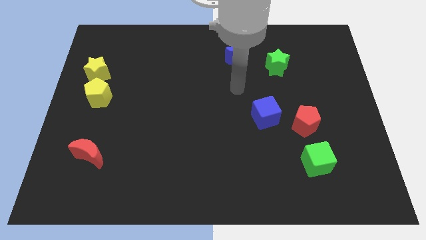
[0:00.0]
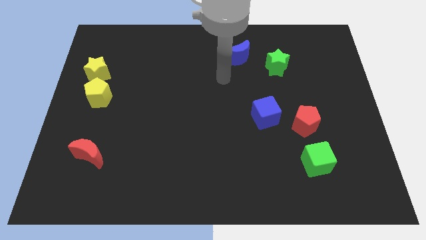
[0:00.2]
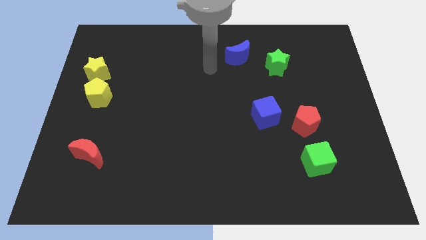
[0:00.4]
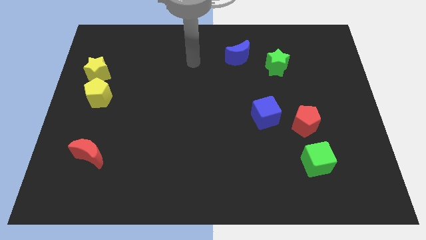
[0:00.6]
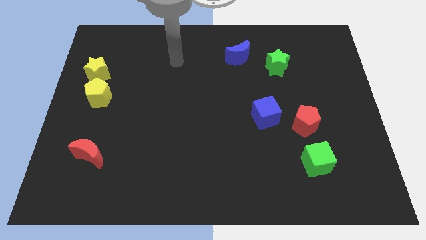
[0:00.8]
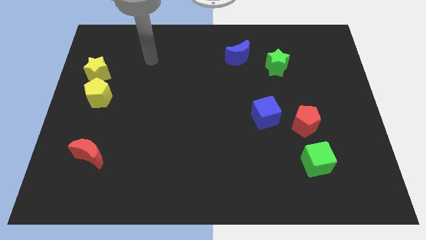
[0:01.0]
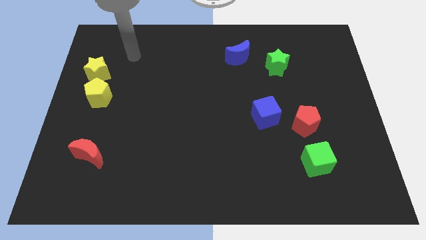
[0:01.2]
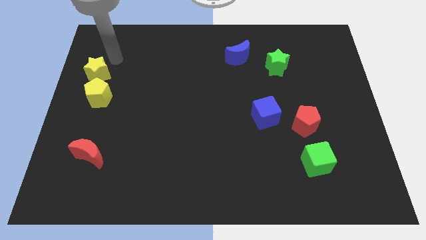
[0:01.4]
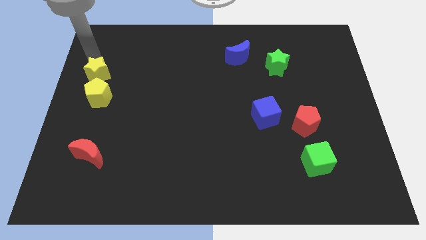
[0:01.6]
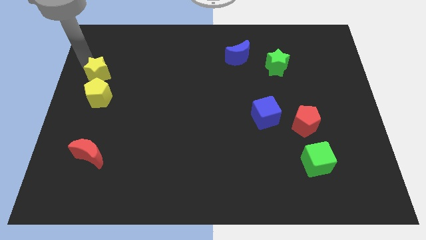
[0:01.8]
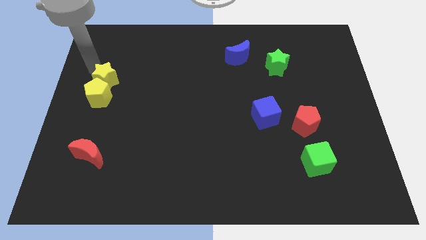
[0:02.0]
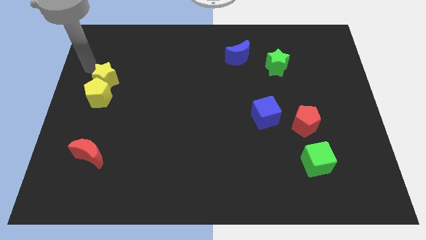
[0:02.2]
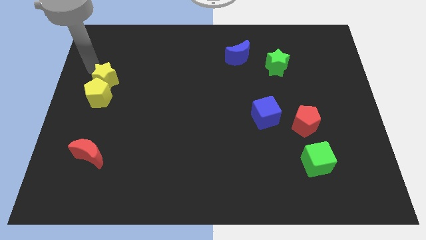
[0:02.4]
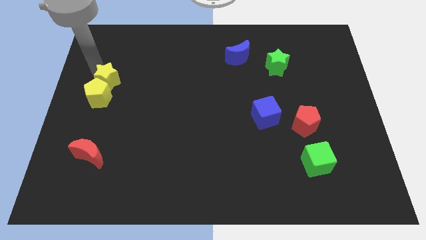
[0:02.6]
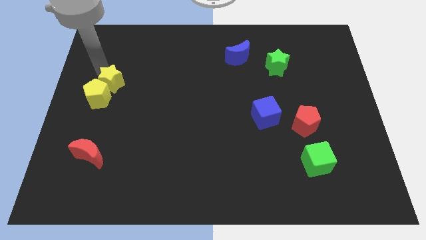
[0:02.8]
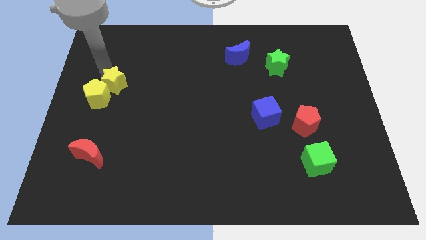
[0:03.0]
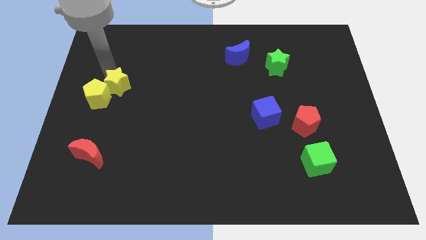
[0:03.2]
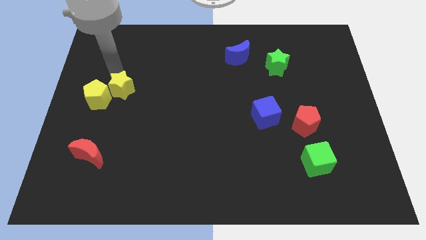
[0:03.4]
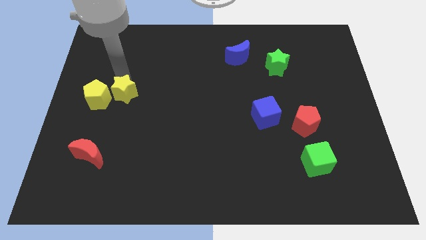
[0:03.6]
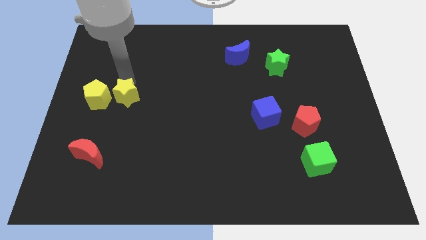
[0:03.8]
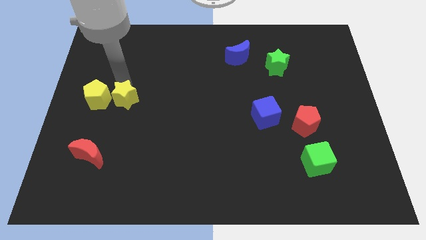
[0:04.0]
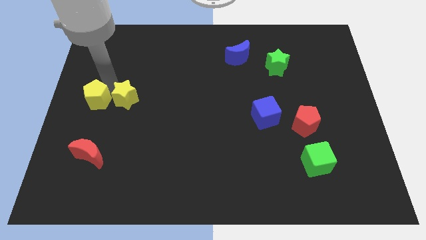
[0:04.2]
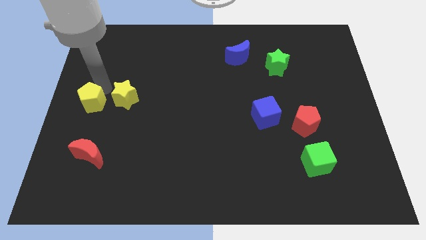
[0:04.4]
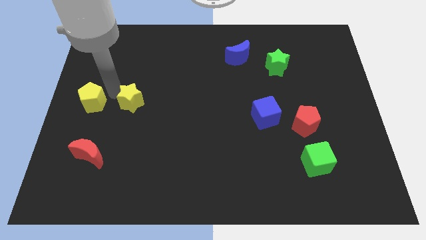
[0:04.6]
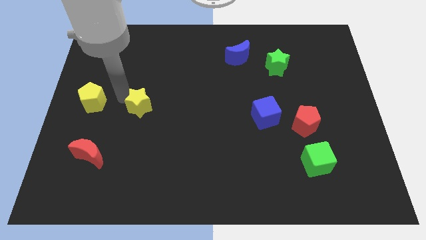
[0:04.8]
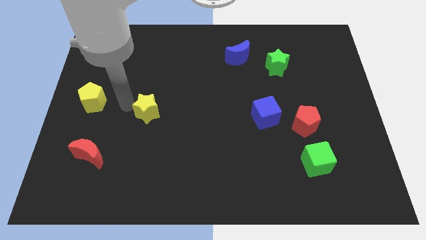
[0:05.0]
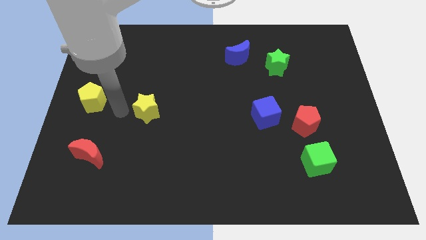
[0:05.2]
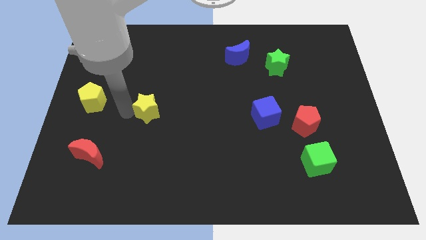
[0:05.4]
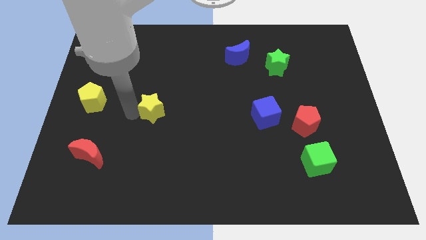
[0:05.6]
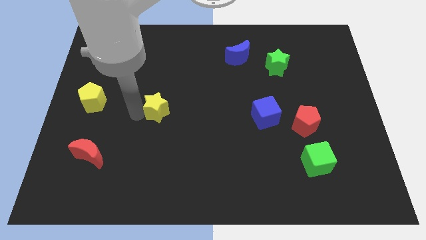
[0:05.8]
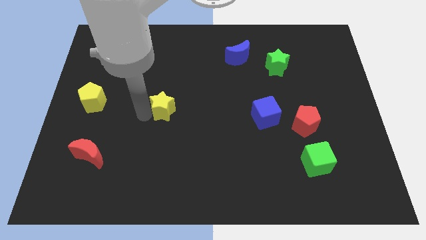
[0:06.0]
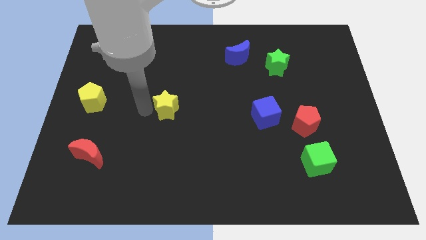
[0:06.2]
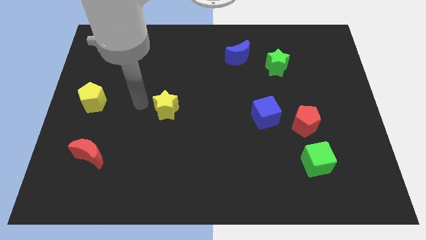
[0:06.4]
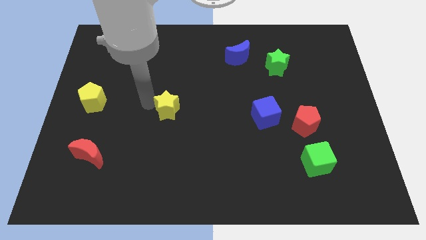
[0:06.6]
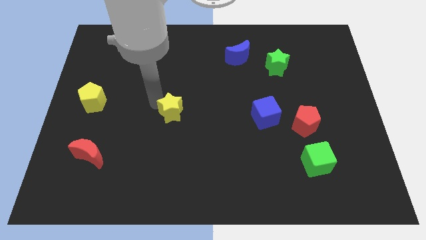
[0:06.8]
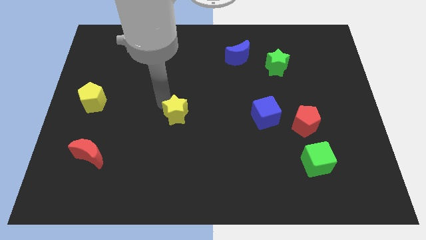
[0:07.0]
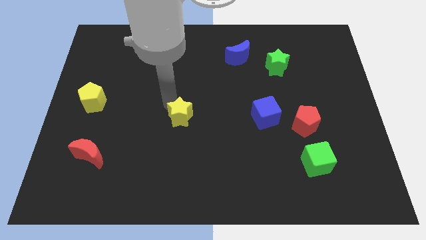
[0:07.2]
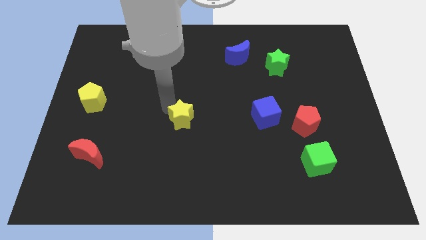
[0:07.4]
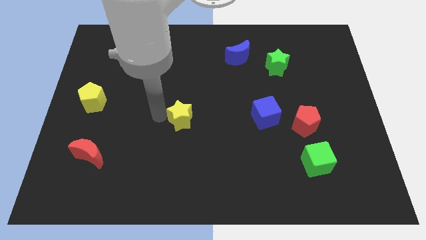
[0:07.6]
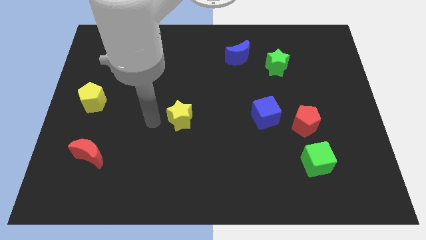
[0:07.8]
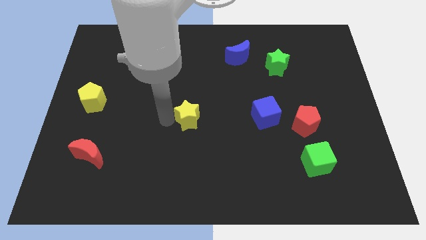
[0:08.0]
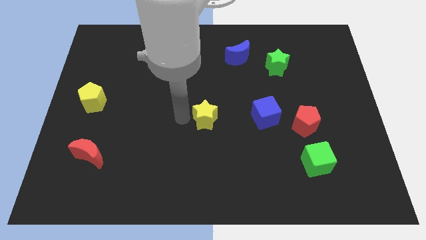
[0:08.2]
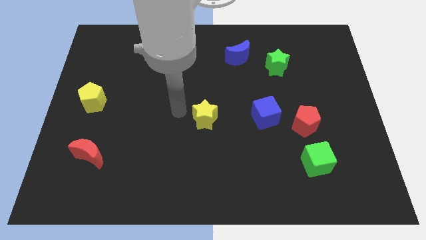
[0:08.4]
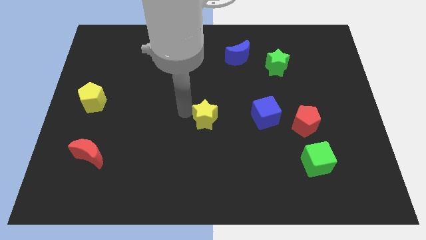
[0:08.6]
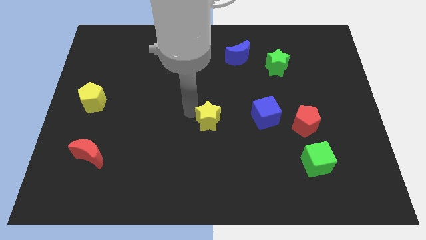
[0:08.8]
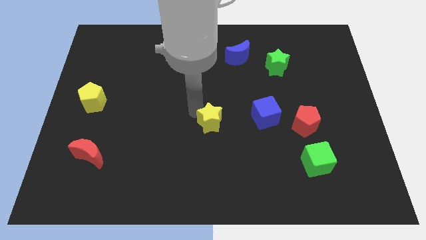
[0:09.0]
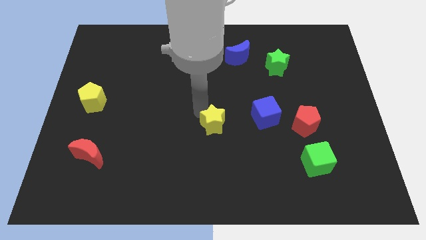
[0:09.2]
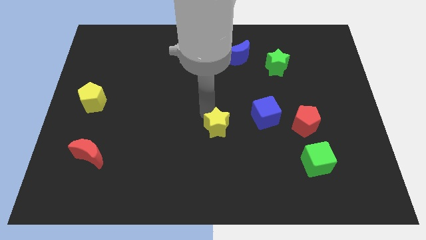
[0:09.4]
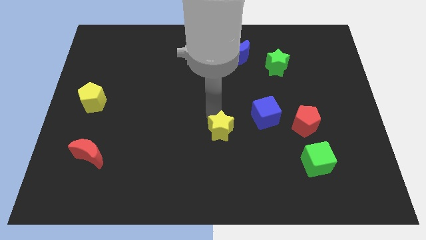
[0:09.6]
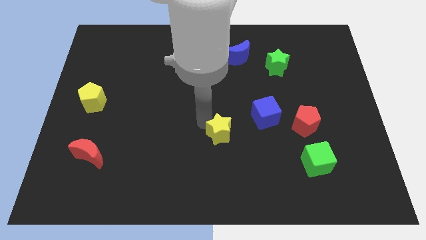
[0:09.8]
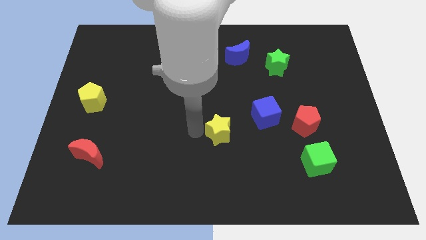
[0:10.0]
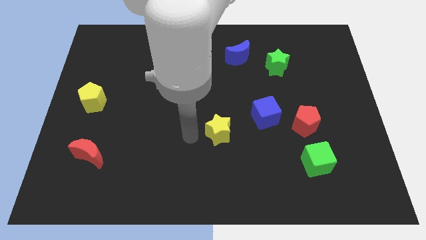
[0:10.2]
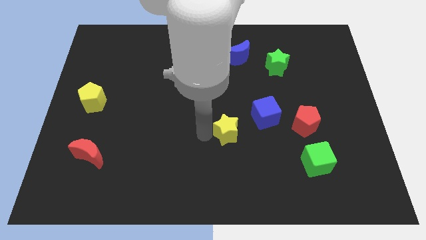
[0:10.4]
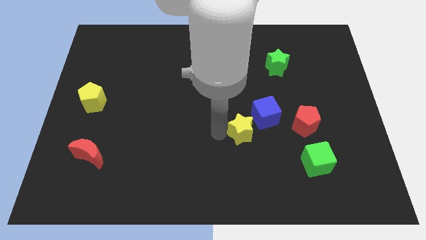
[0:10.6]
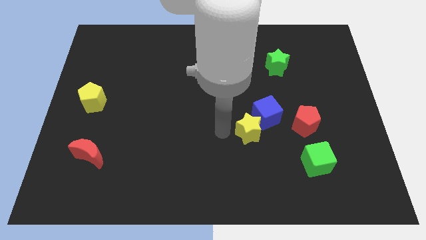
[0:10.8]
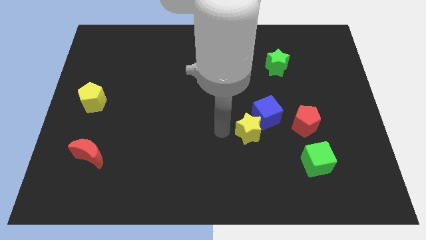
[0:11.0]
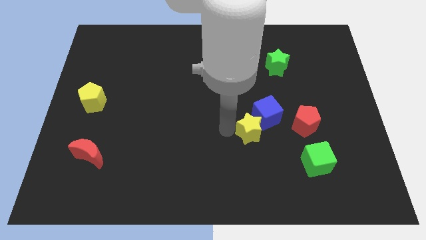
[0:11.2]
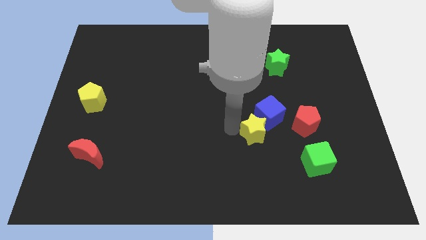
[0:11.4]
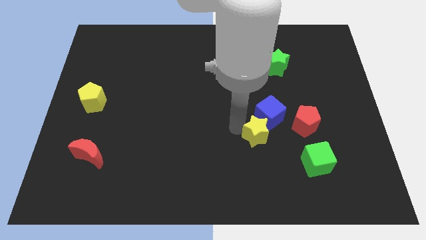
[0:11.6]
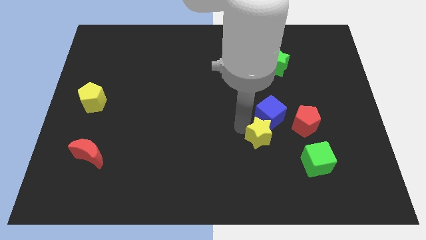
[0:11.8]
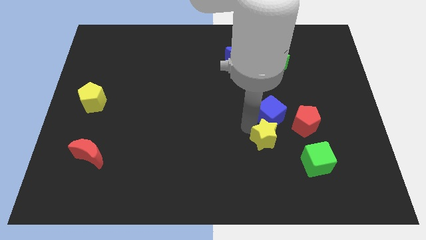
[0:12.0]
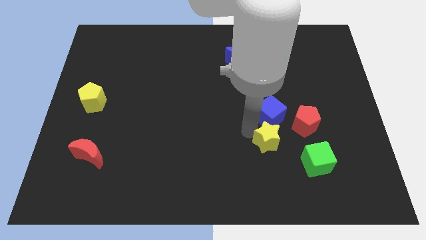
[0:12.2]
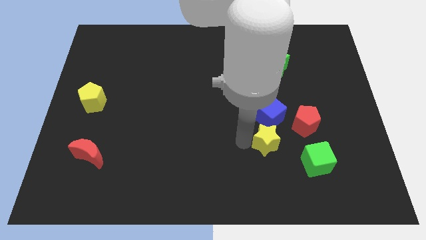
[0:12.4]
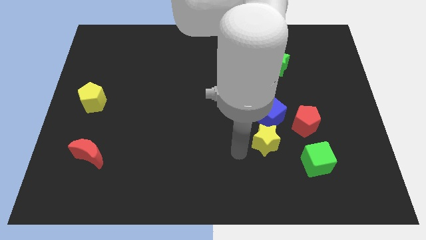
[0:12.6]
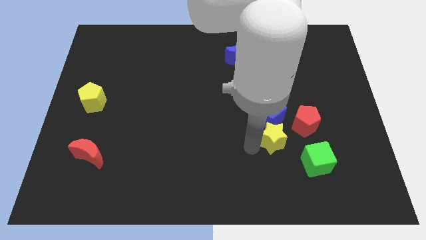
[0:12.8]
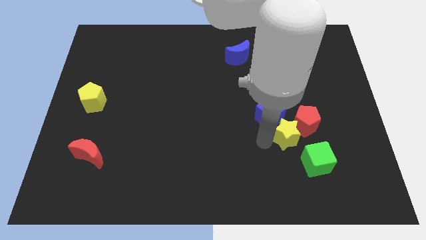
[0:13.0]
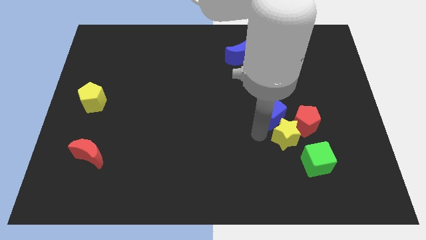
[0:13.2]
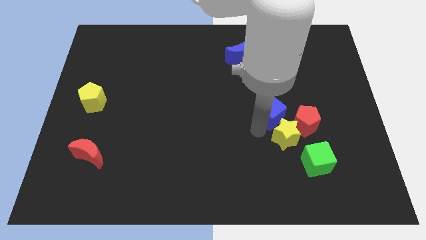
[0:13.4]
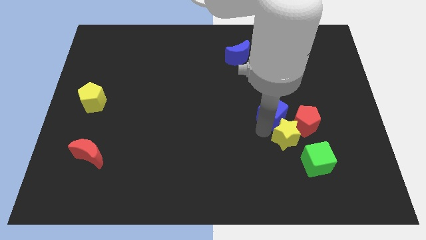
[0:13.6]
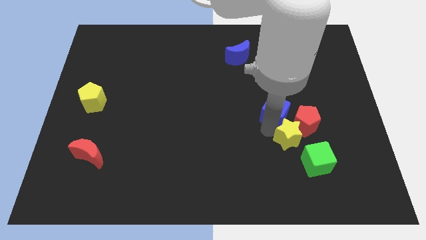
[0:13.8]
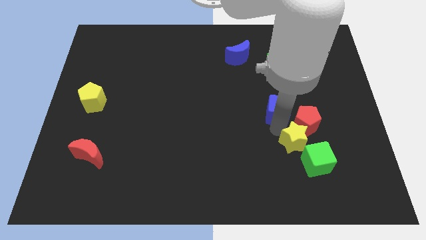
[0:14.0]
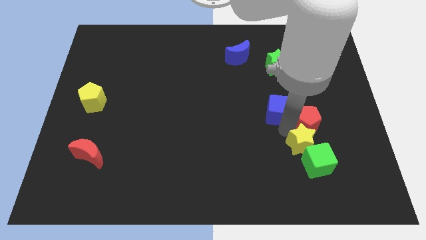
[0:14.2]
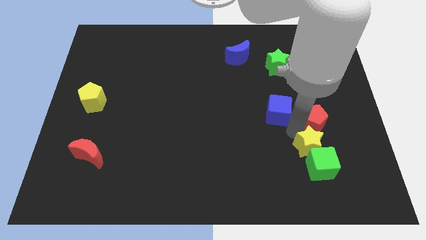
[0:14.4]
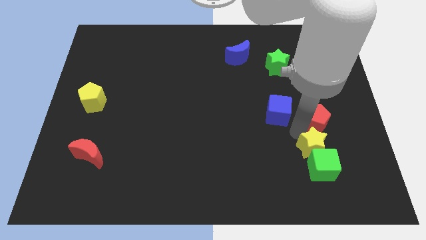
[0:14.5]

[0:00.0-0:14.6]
slide the yellow star to the top right of the green cube
